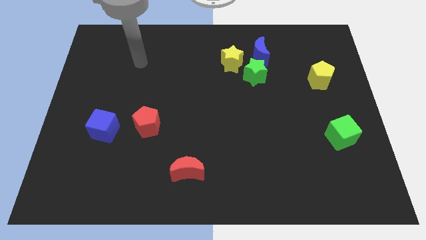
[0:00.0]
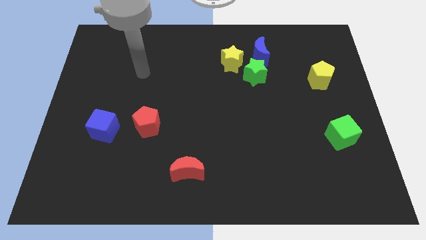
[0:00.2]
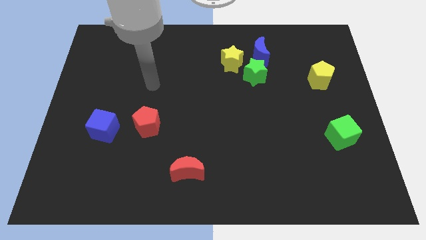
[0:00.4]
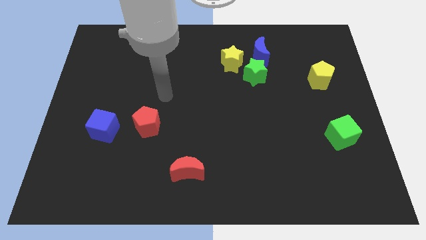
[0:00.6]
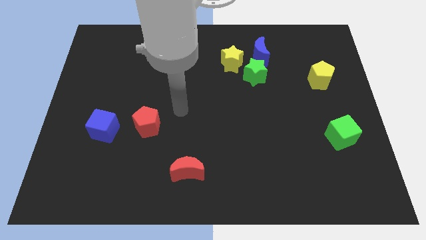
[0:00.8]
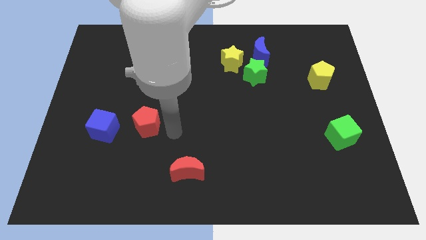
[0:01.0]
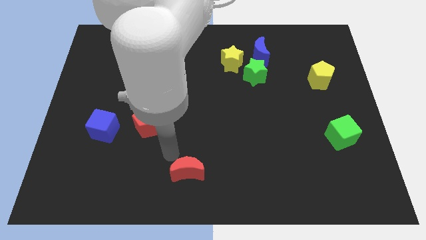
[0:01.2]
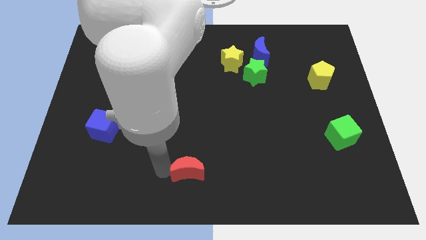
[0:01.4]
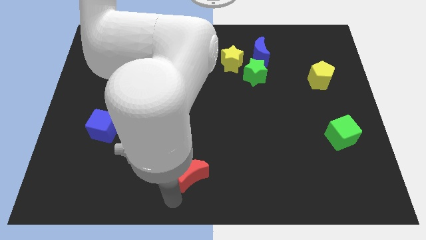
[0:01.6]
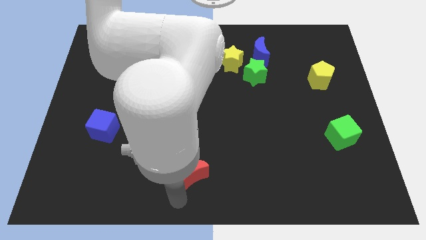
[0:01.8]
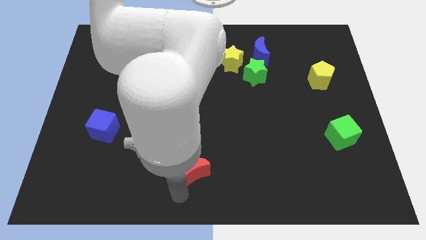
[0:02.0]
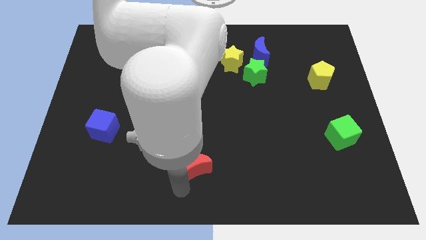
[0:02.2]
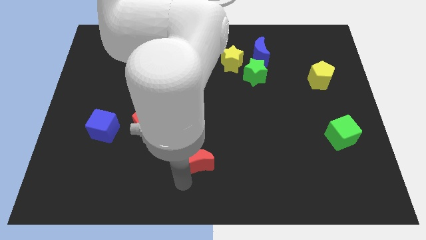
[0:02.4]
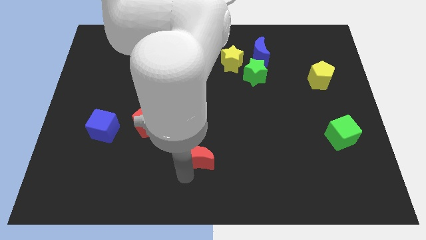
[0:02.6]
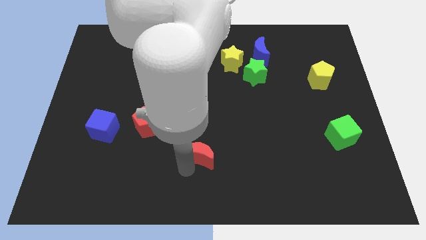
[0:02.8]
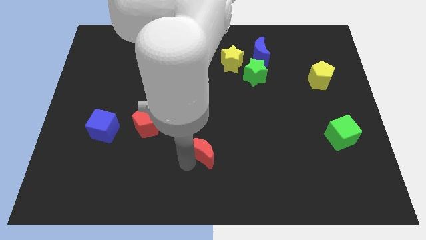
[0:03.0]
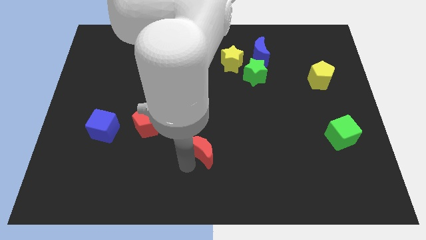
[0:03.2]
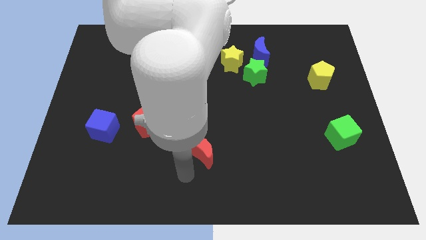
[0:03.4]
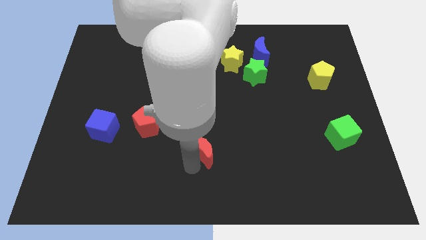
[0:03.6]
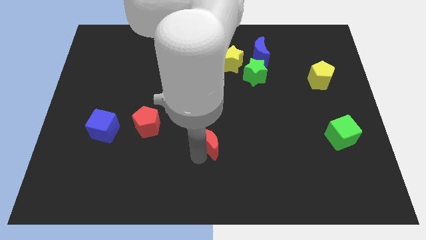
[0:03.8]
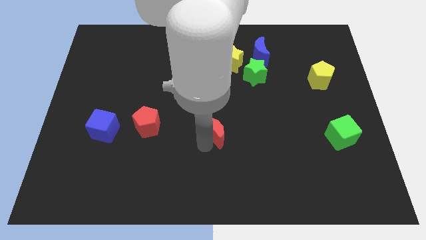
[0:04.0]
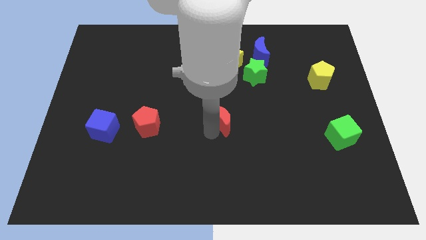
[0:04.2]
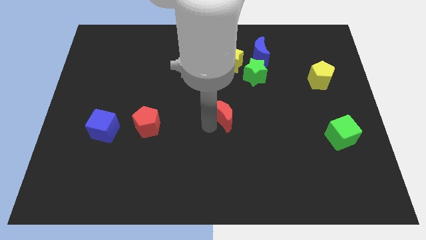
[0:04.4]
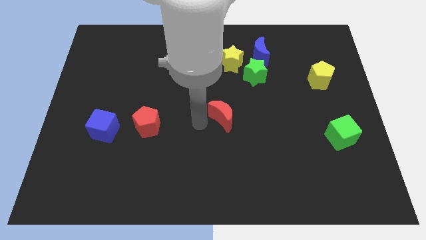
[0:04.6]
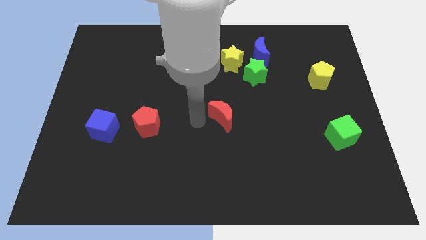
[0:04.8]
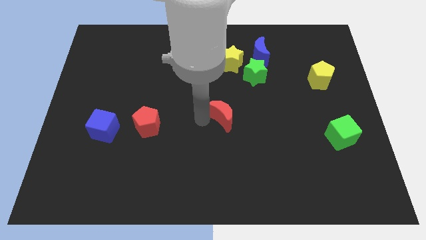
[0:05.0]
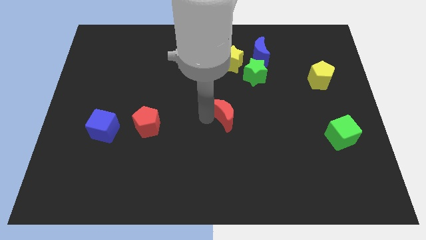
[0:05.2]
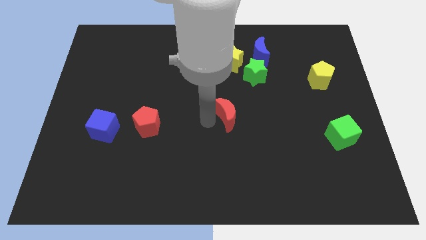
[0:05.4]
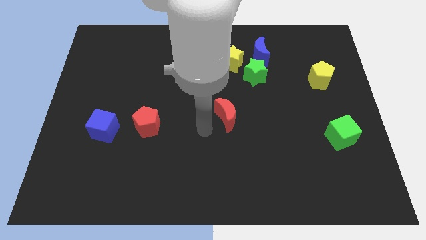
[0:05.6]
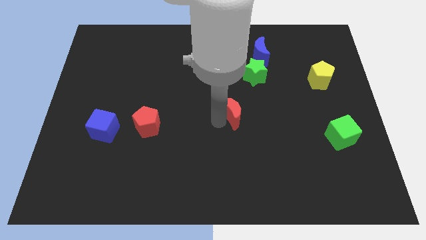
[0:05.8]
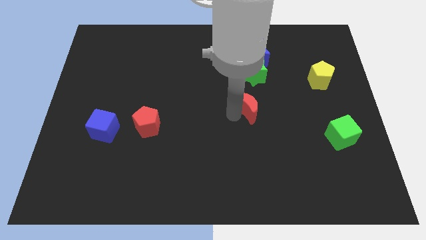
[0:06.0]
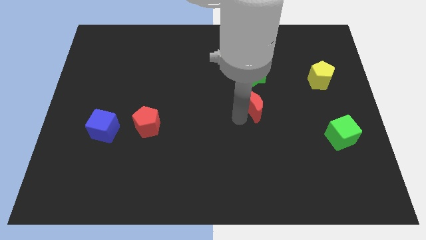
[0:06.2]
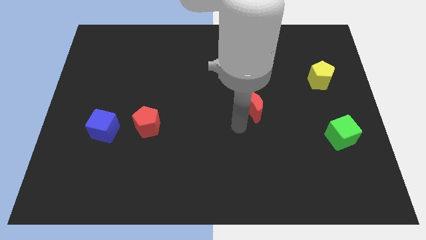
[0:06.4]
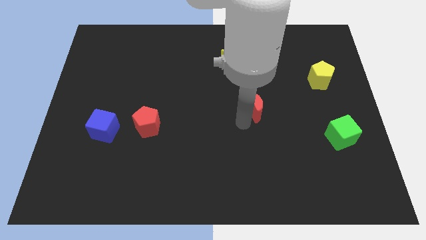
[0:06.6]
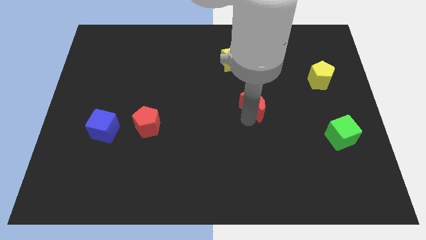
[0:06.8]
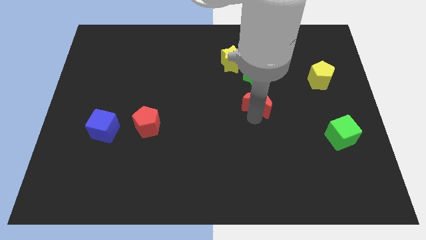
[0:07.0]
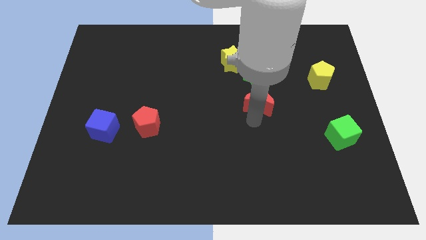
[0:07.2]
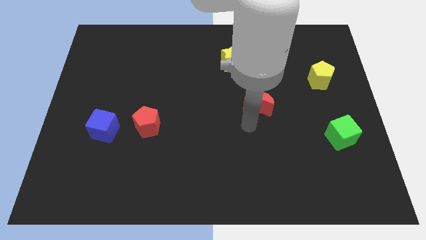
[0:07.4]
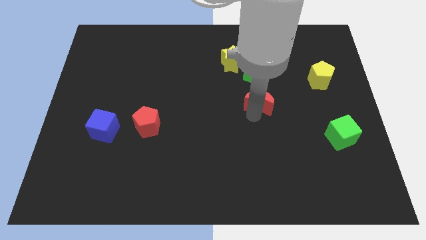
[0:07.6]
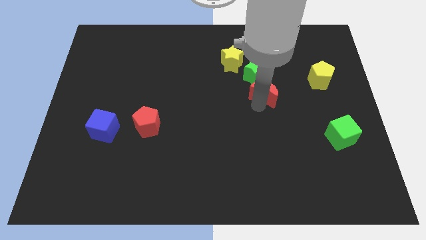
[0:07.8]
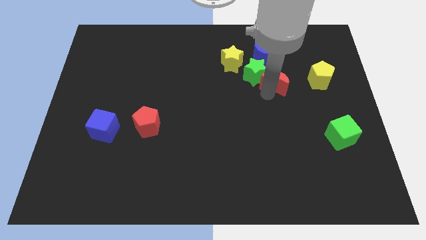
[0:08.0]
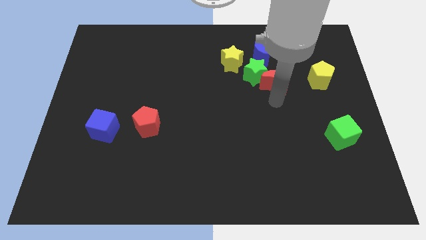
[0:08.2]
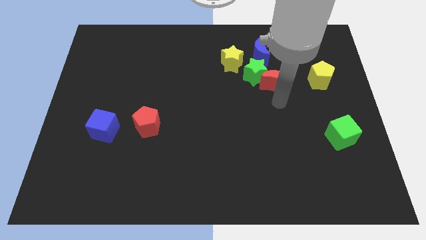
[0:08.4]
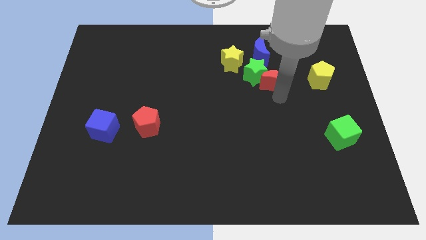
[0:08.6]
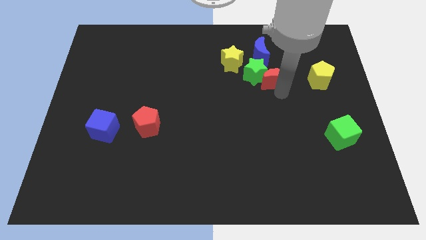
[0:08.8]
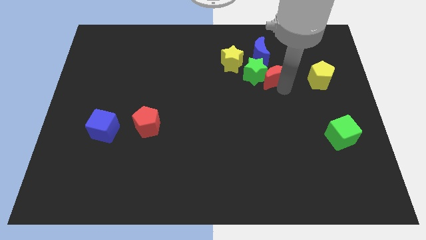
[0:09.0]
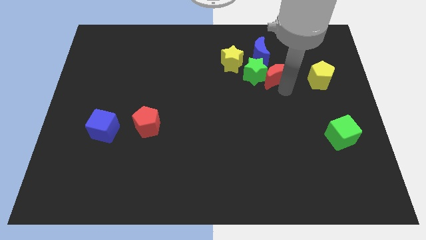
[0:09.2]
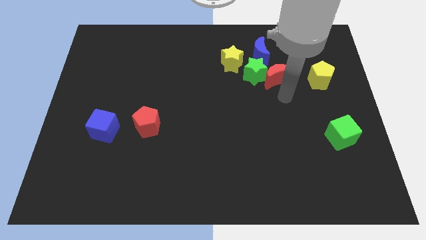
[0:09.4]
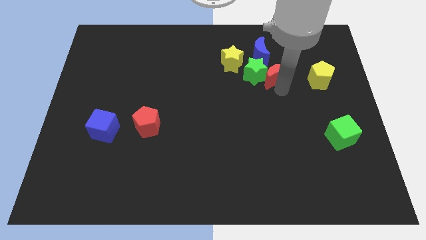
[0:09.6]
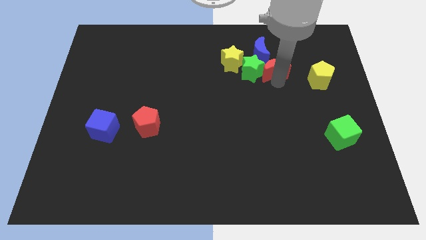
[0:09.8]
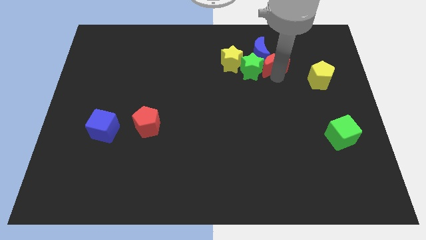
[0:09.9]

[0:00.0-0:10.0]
move the red moon to the blue moon

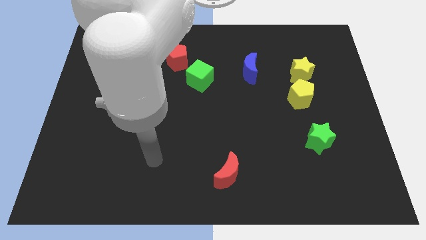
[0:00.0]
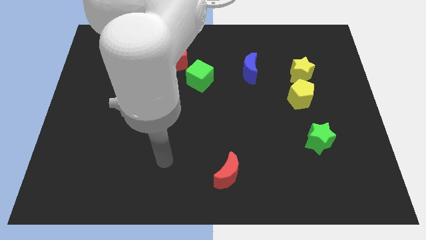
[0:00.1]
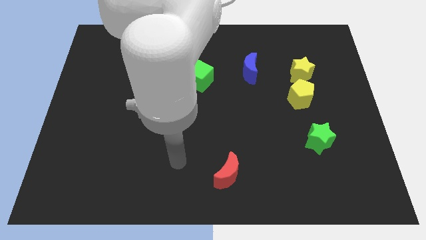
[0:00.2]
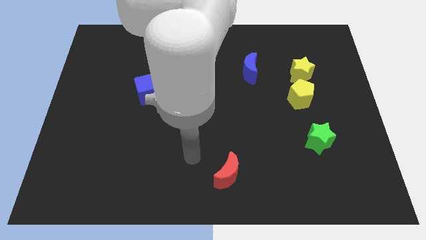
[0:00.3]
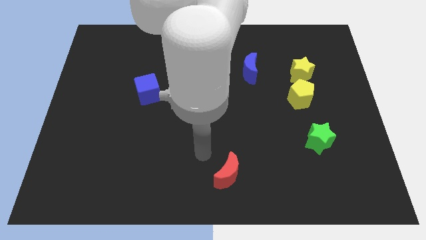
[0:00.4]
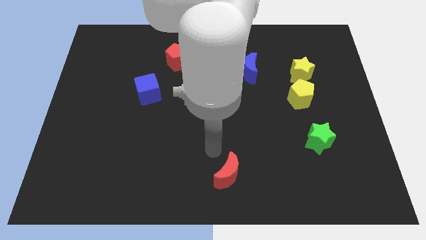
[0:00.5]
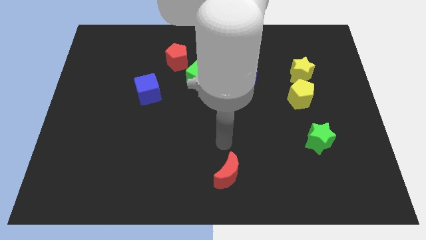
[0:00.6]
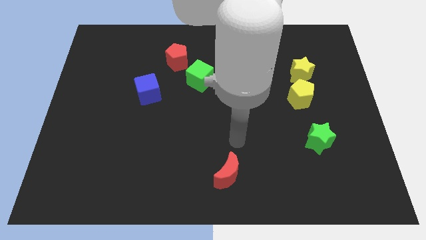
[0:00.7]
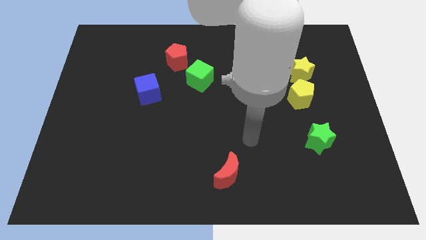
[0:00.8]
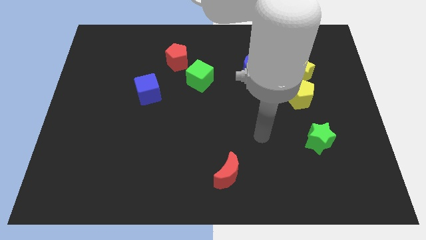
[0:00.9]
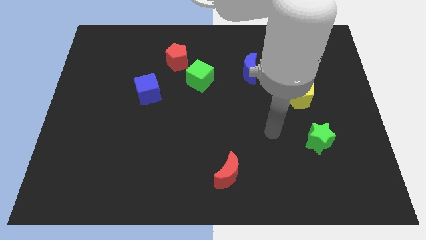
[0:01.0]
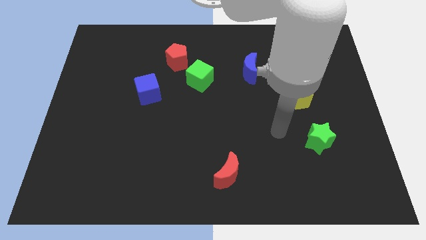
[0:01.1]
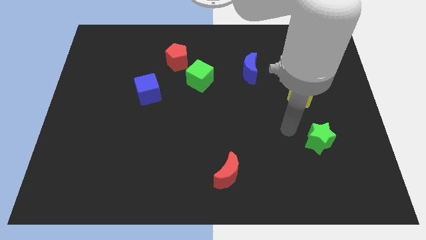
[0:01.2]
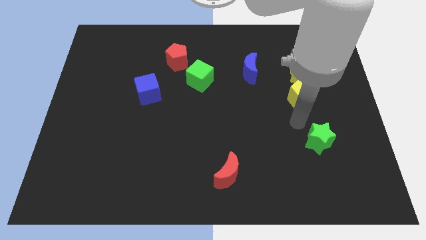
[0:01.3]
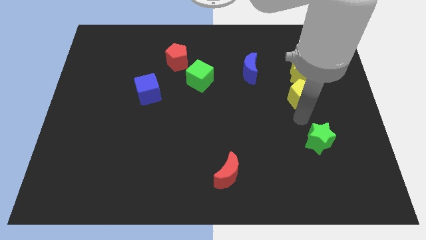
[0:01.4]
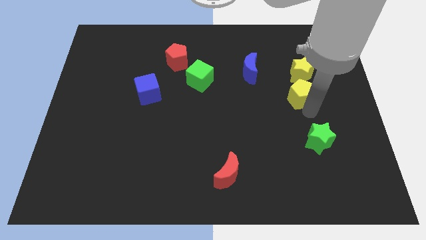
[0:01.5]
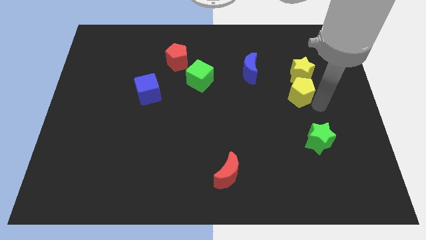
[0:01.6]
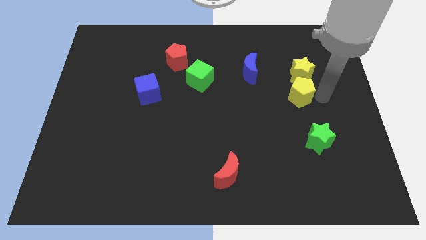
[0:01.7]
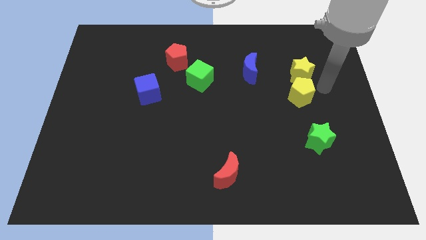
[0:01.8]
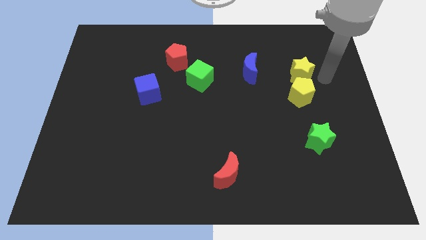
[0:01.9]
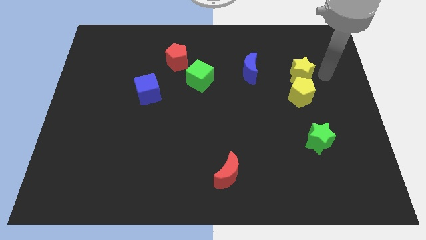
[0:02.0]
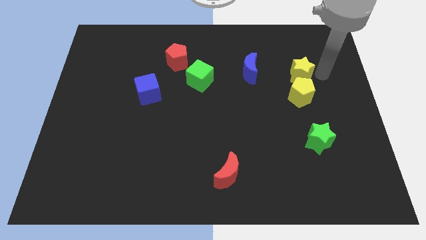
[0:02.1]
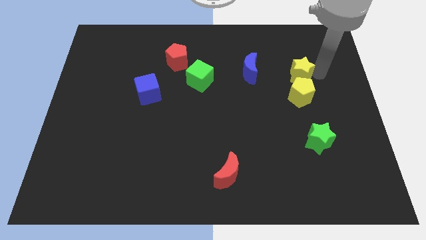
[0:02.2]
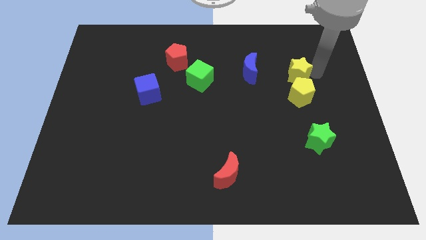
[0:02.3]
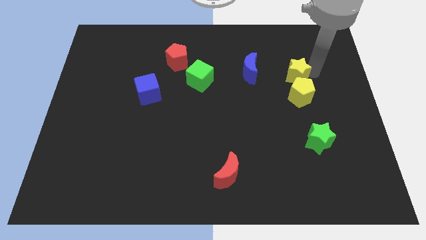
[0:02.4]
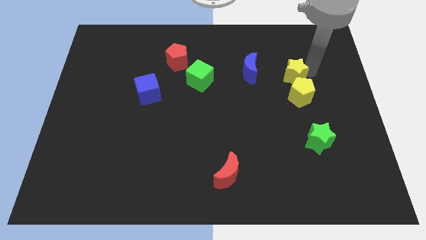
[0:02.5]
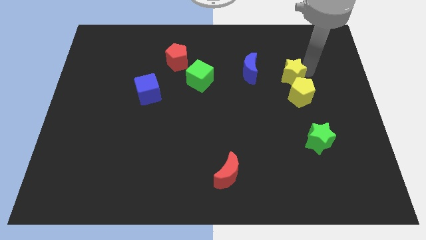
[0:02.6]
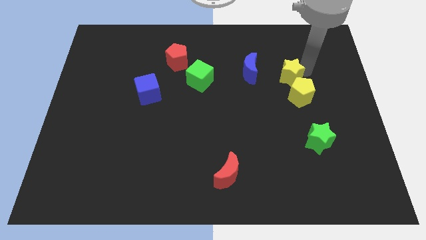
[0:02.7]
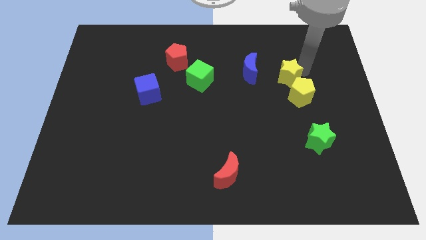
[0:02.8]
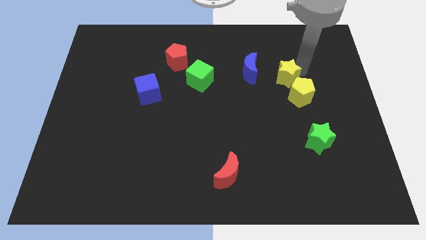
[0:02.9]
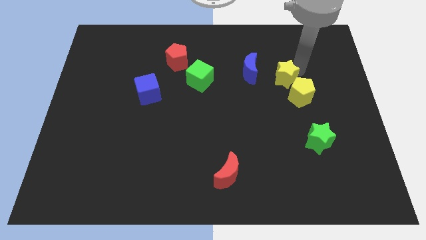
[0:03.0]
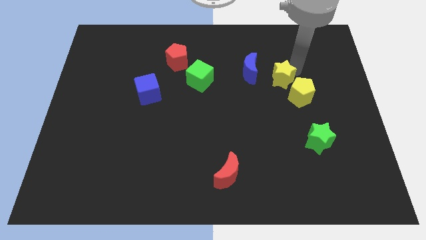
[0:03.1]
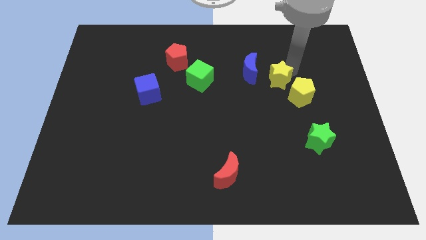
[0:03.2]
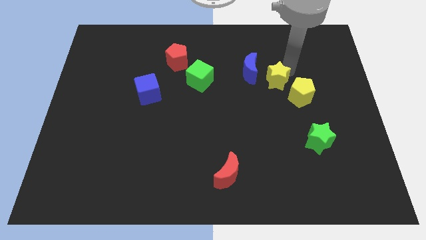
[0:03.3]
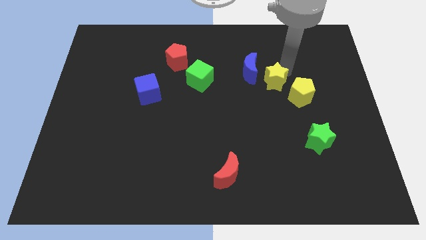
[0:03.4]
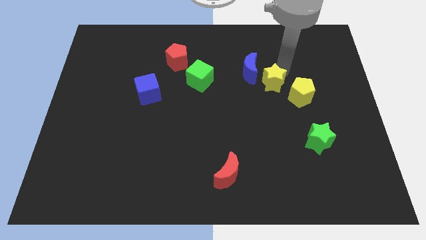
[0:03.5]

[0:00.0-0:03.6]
push the yellow star towards the blue moon
